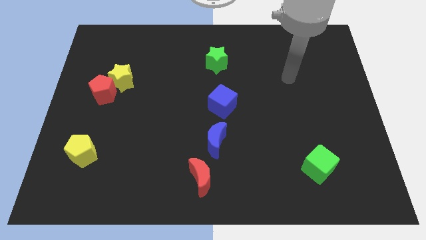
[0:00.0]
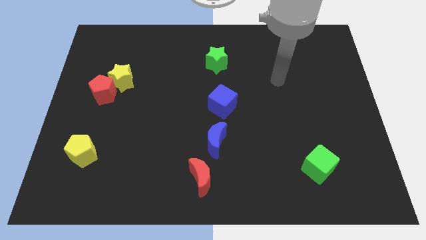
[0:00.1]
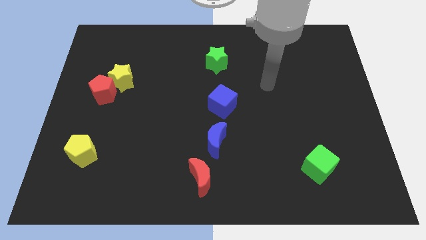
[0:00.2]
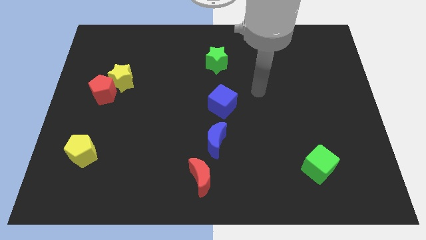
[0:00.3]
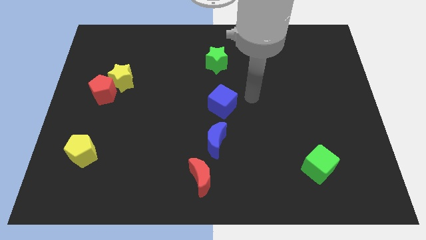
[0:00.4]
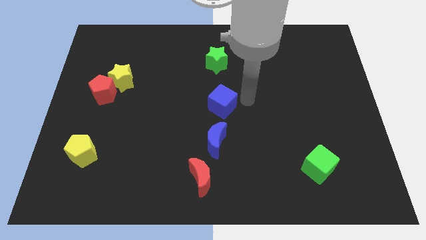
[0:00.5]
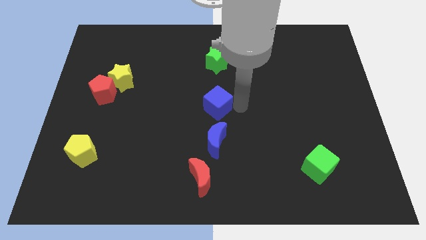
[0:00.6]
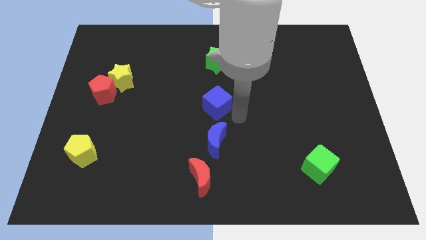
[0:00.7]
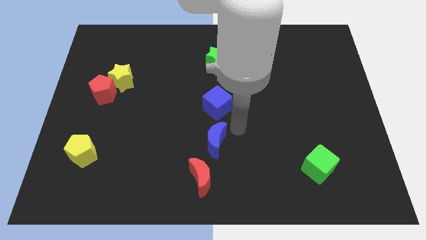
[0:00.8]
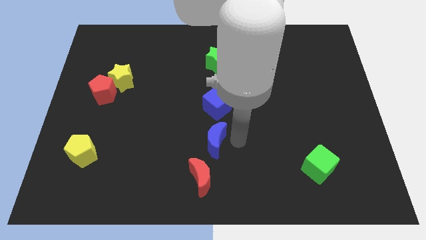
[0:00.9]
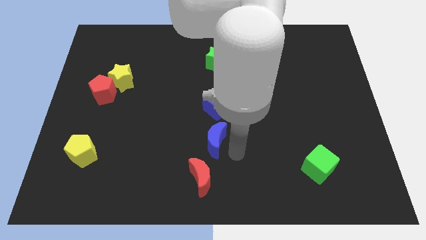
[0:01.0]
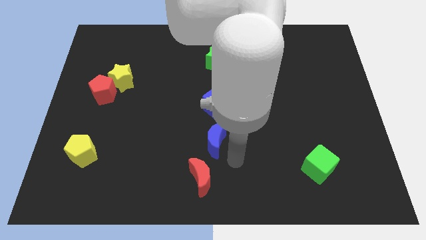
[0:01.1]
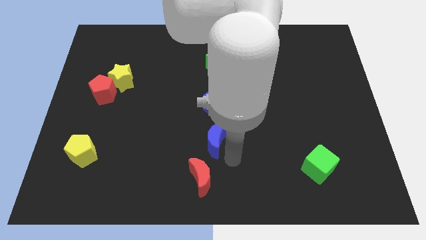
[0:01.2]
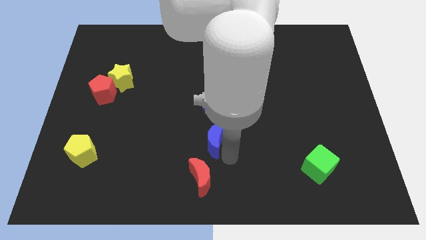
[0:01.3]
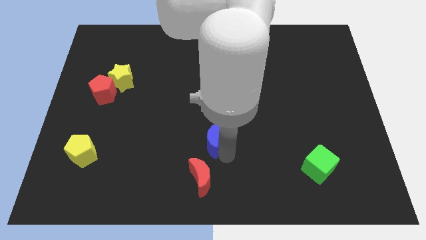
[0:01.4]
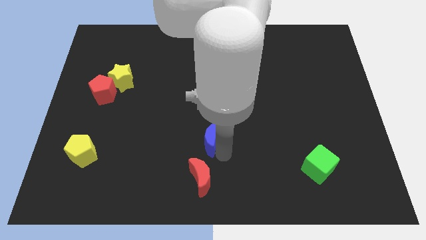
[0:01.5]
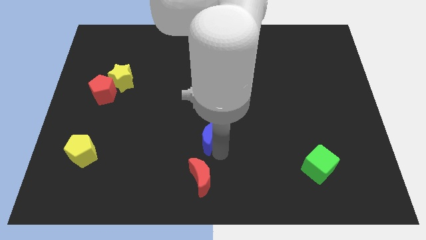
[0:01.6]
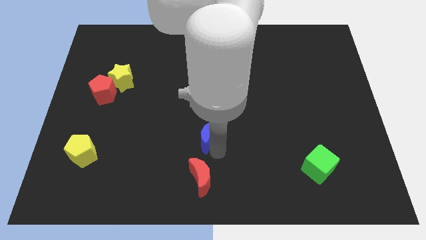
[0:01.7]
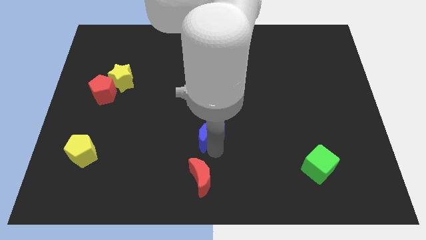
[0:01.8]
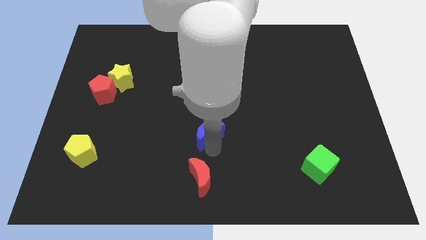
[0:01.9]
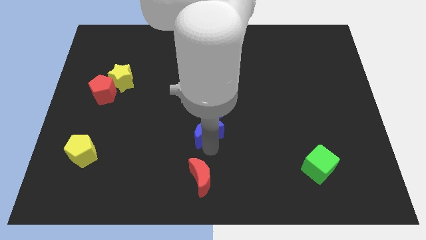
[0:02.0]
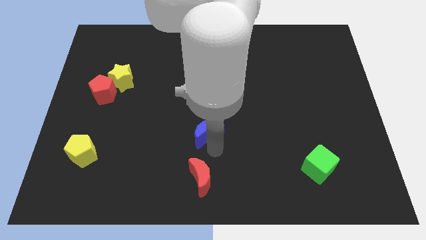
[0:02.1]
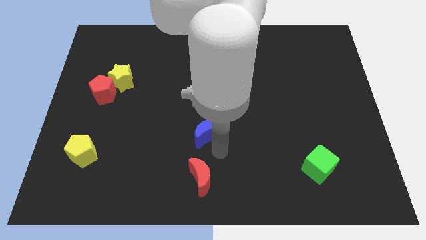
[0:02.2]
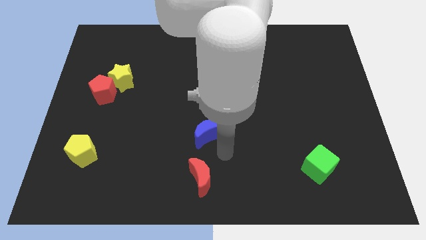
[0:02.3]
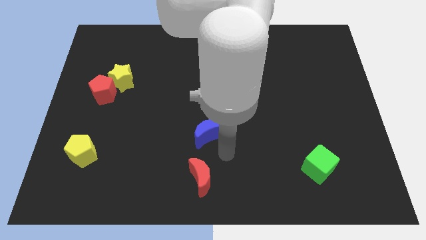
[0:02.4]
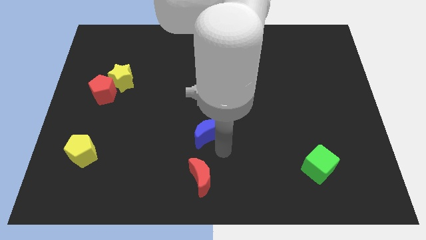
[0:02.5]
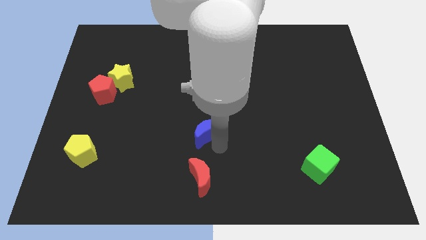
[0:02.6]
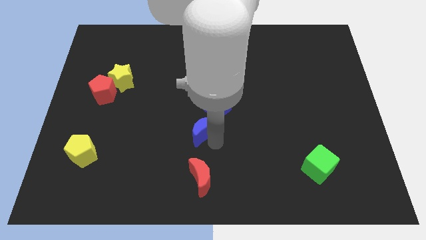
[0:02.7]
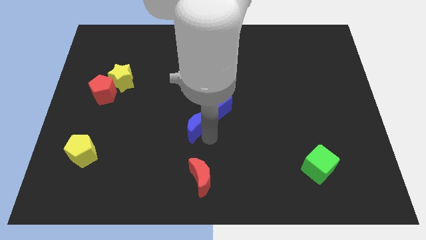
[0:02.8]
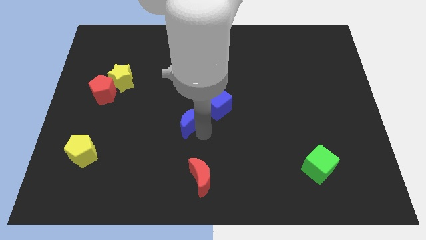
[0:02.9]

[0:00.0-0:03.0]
slightly push the blue moon up and then to the left

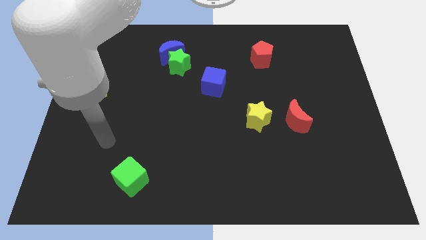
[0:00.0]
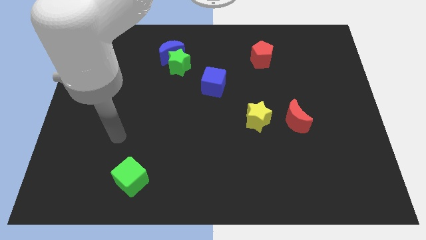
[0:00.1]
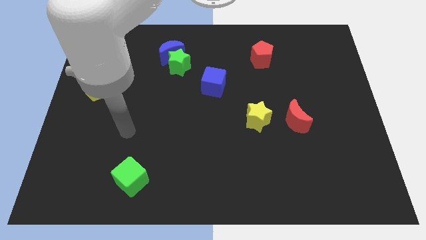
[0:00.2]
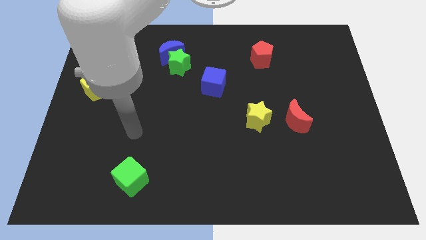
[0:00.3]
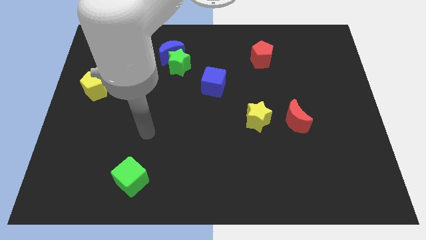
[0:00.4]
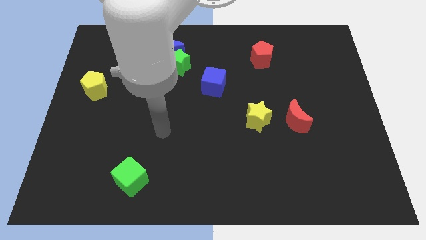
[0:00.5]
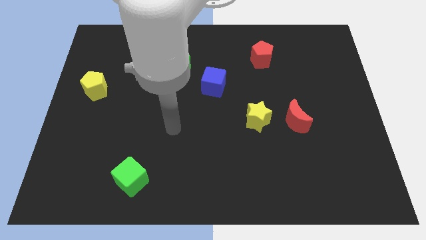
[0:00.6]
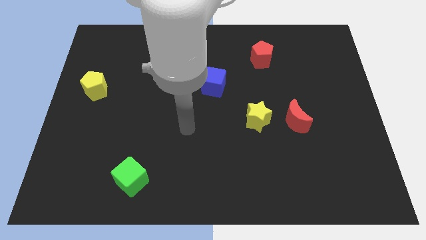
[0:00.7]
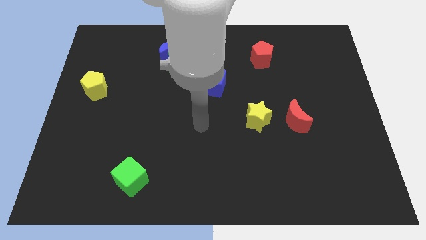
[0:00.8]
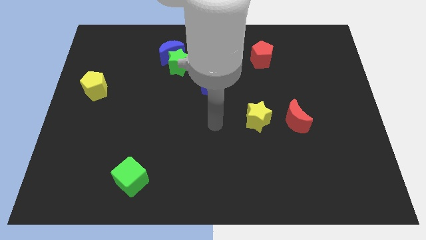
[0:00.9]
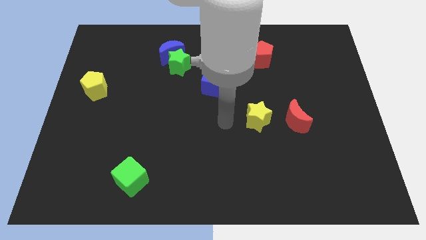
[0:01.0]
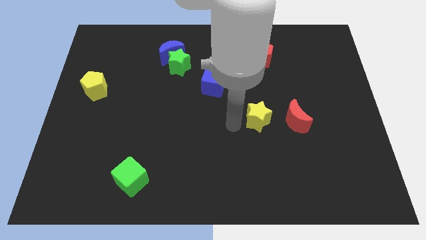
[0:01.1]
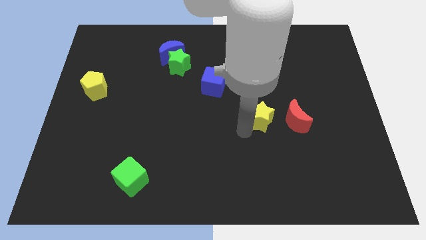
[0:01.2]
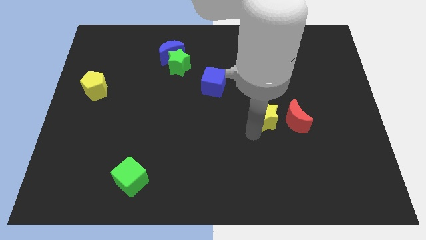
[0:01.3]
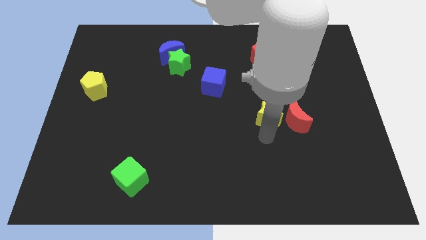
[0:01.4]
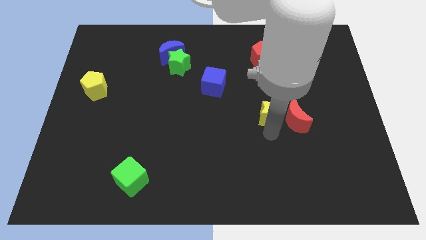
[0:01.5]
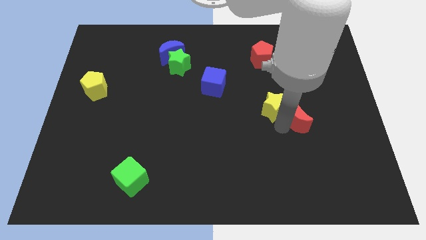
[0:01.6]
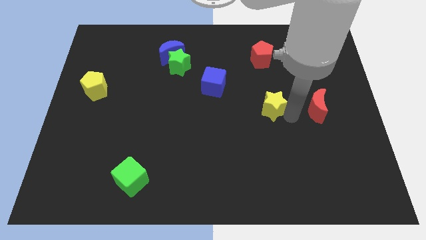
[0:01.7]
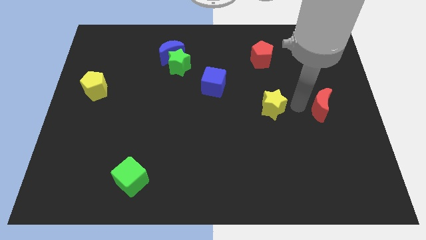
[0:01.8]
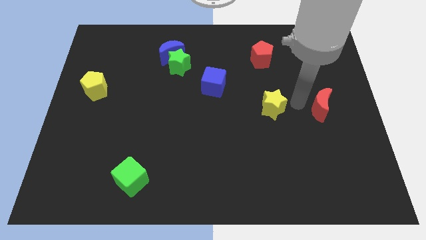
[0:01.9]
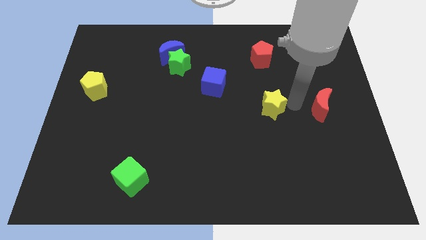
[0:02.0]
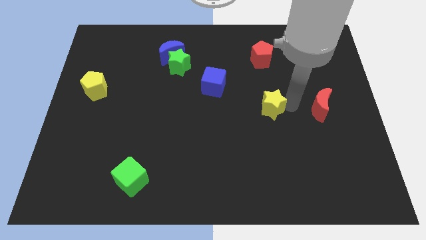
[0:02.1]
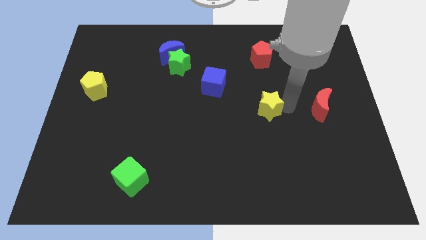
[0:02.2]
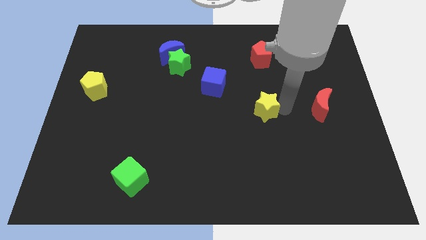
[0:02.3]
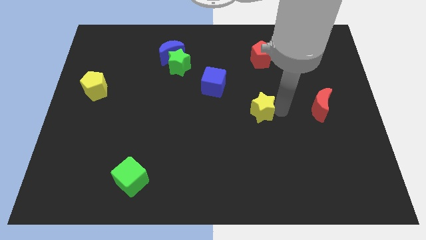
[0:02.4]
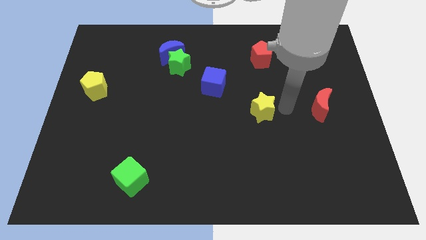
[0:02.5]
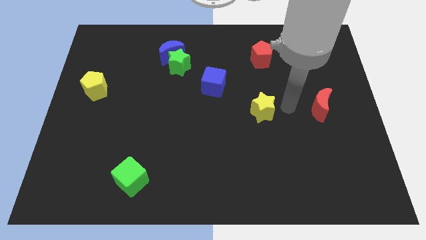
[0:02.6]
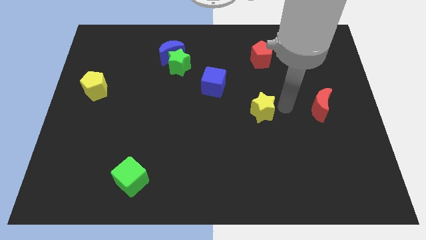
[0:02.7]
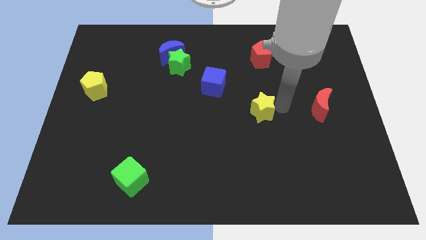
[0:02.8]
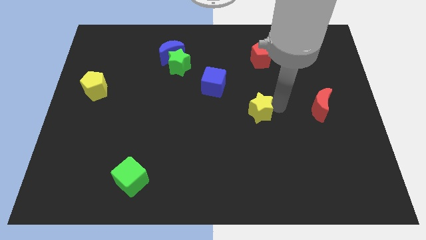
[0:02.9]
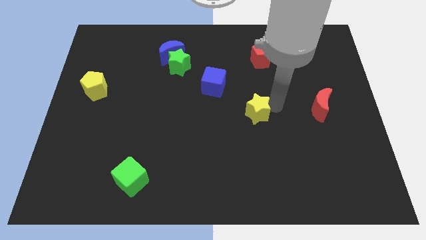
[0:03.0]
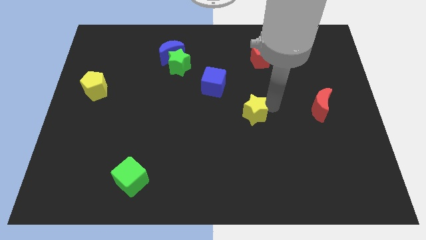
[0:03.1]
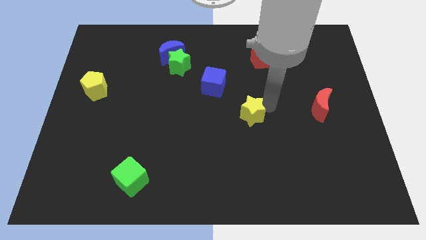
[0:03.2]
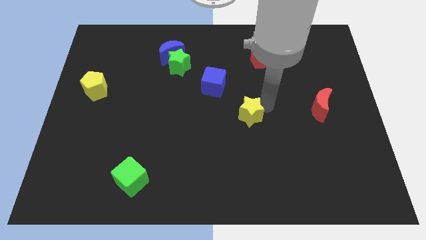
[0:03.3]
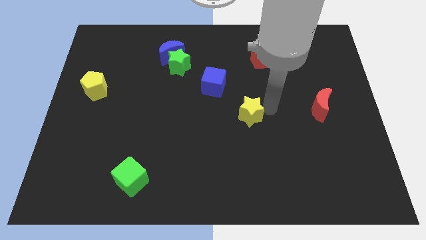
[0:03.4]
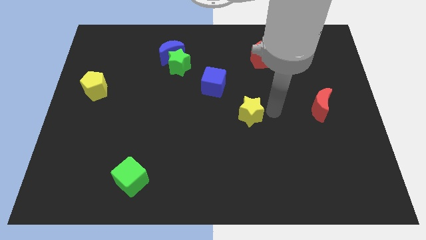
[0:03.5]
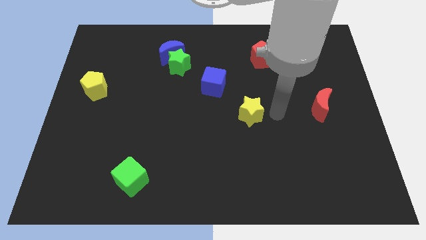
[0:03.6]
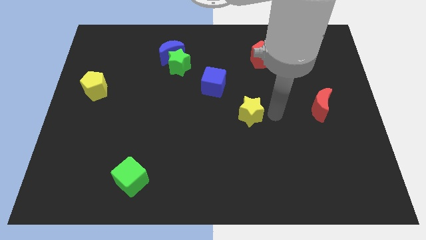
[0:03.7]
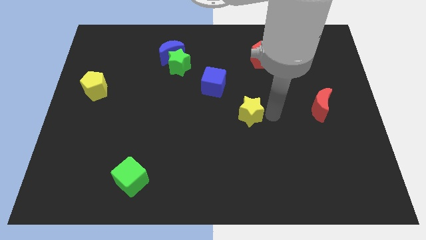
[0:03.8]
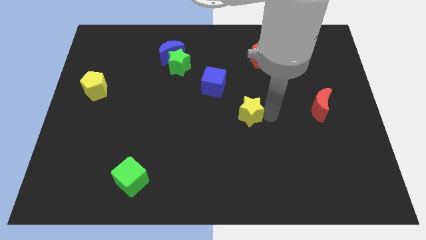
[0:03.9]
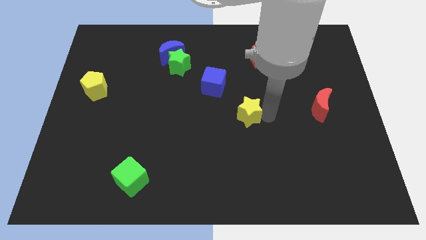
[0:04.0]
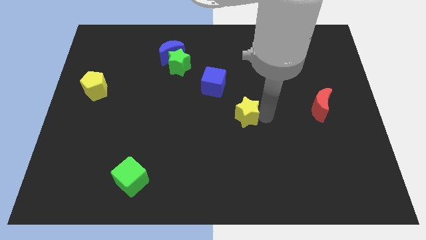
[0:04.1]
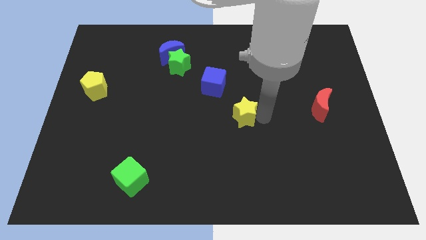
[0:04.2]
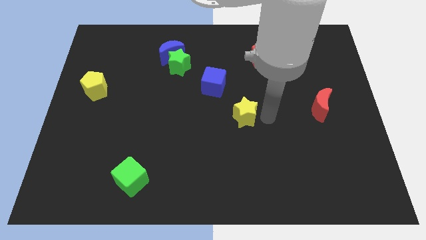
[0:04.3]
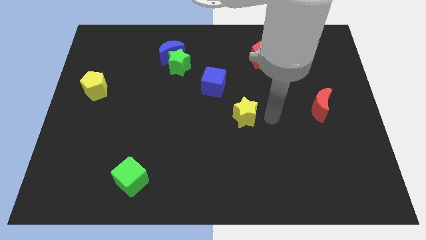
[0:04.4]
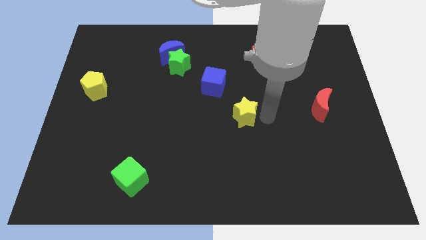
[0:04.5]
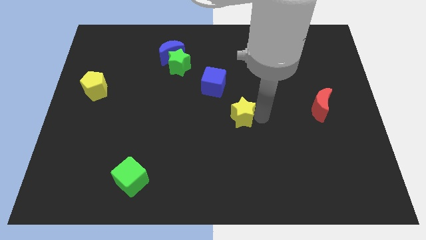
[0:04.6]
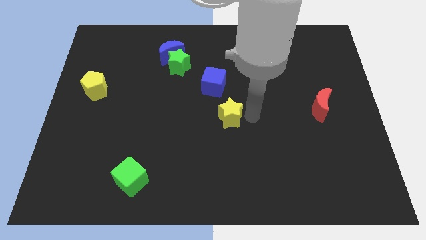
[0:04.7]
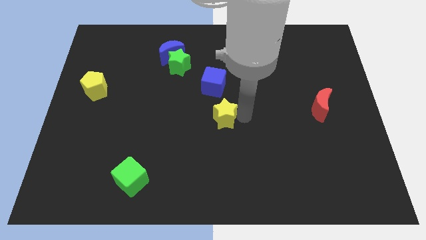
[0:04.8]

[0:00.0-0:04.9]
move the yellow star a little left
